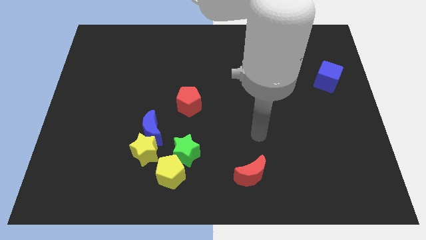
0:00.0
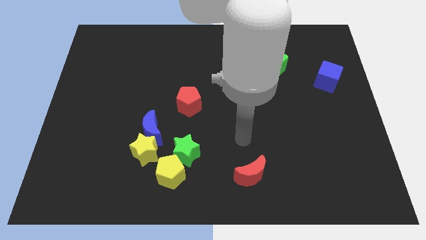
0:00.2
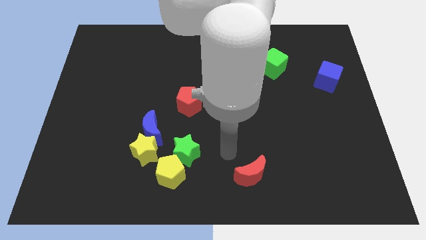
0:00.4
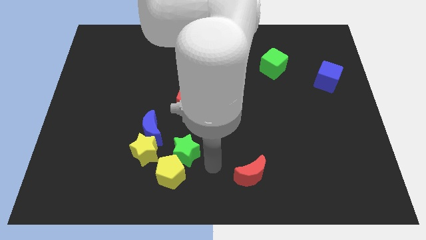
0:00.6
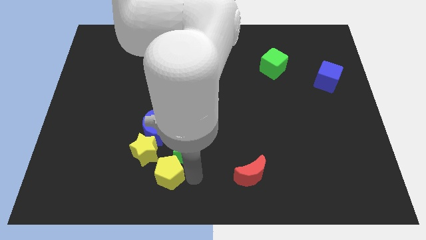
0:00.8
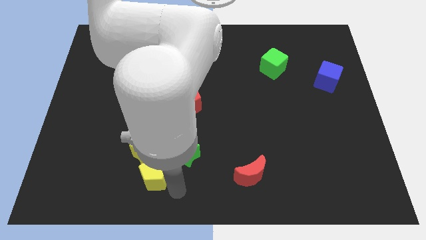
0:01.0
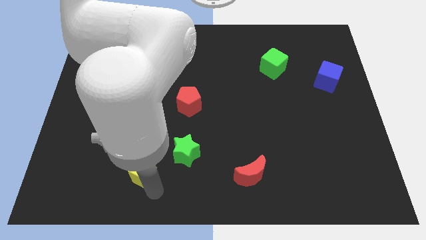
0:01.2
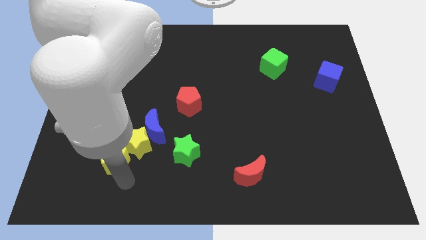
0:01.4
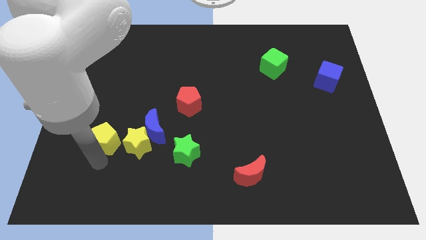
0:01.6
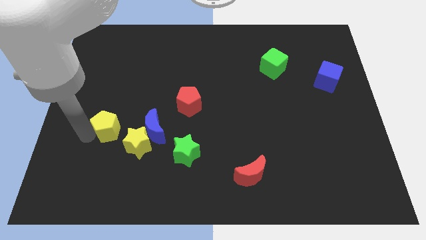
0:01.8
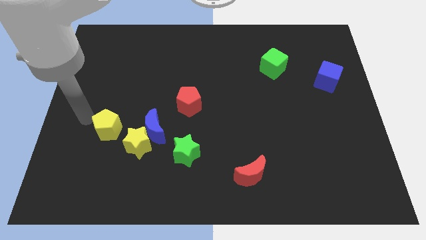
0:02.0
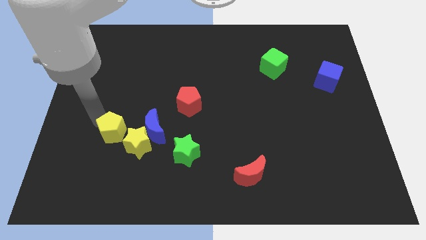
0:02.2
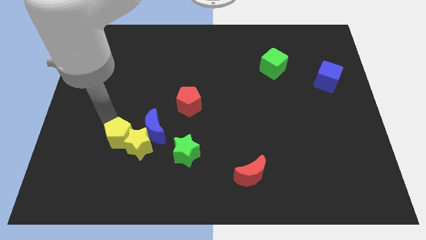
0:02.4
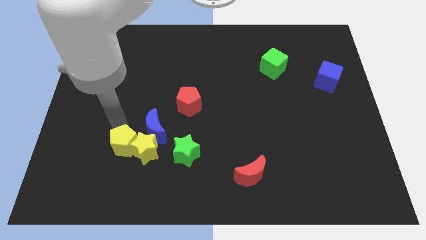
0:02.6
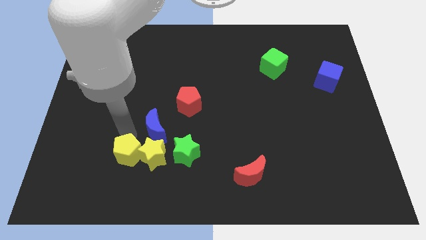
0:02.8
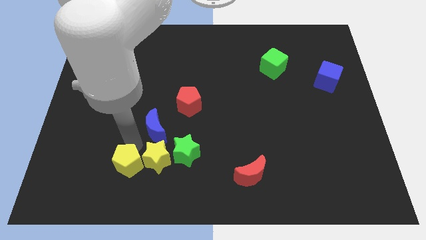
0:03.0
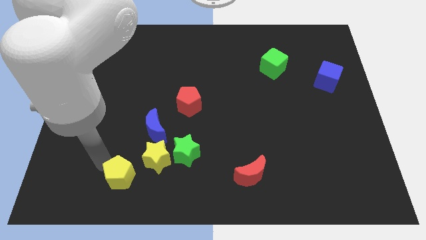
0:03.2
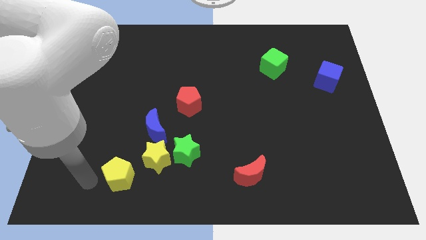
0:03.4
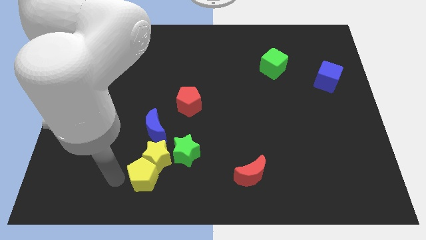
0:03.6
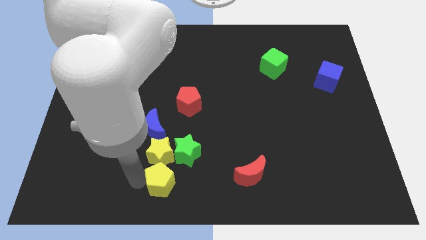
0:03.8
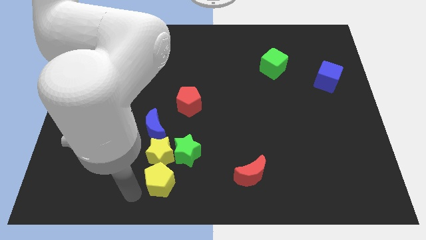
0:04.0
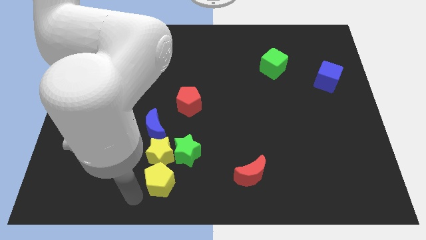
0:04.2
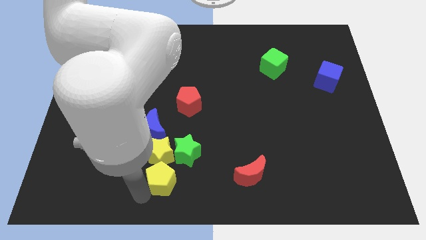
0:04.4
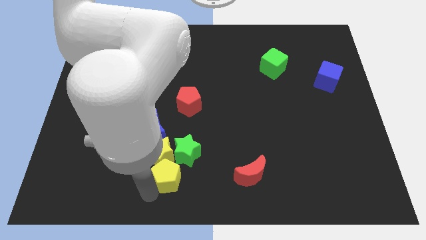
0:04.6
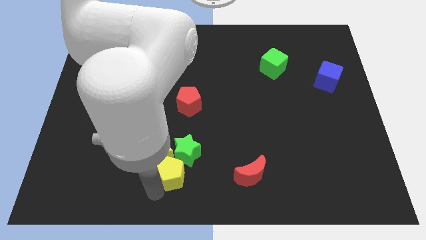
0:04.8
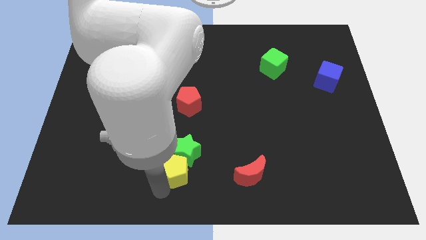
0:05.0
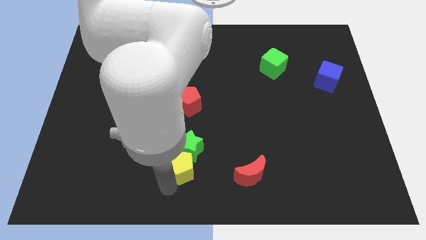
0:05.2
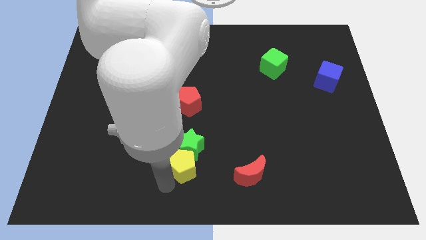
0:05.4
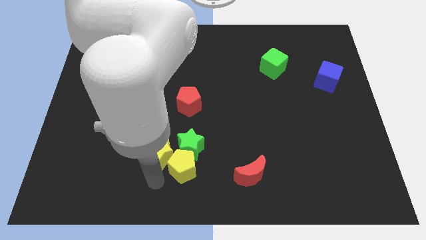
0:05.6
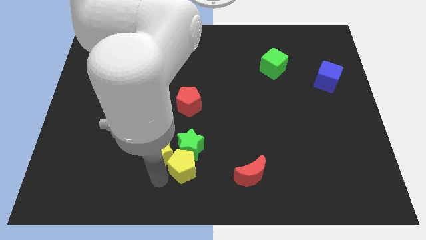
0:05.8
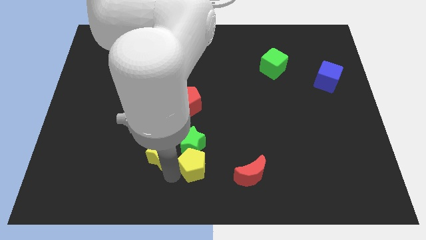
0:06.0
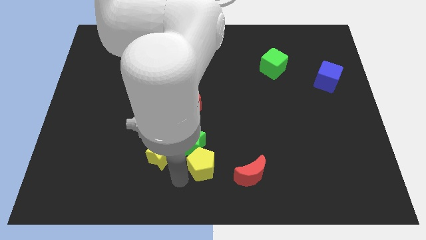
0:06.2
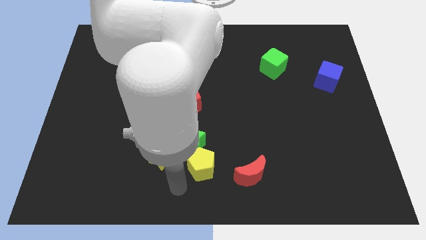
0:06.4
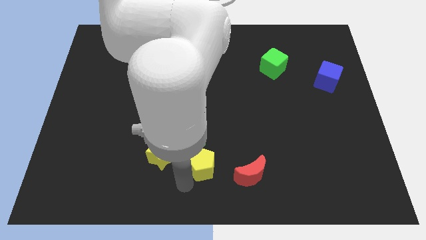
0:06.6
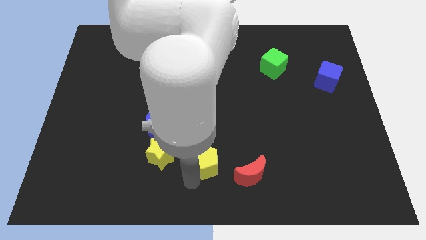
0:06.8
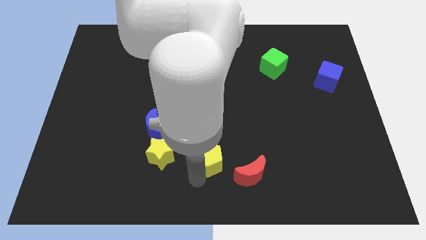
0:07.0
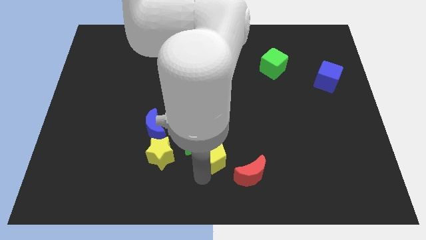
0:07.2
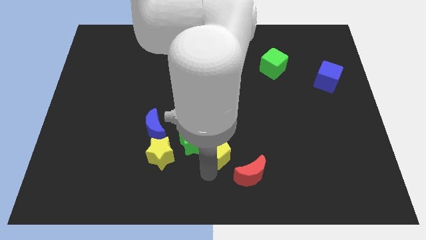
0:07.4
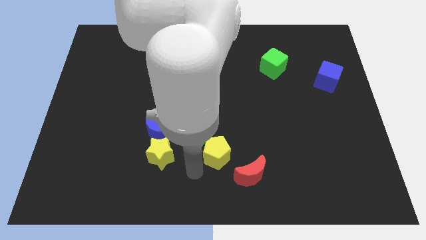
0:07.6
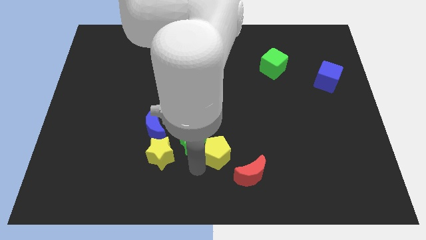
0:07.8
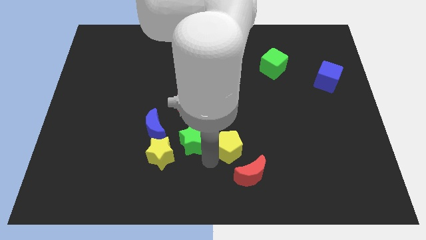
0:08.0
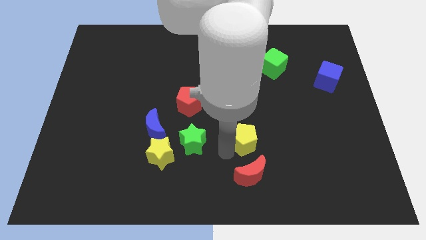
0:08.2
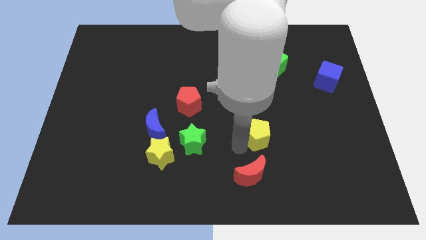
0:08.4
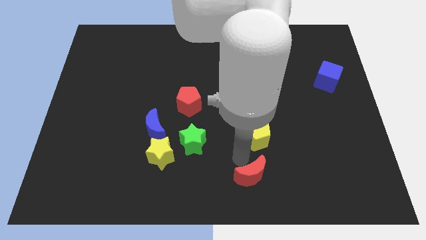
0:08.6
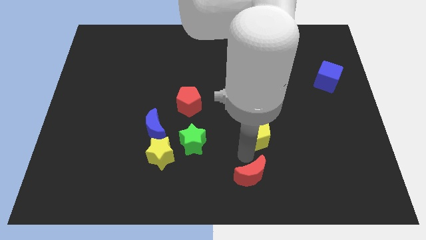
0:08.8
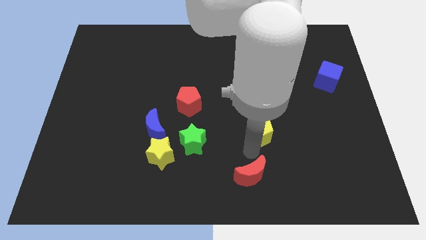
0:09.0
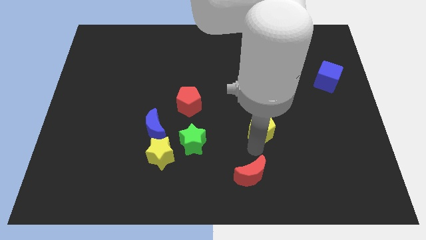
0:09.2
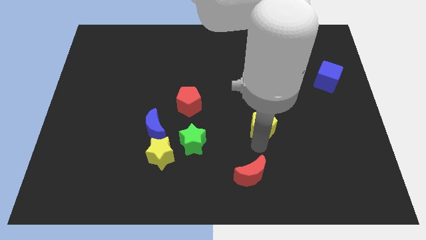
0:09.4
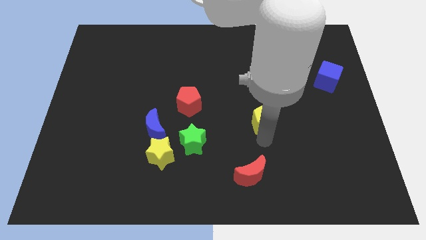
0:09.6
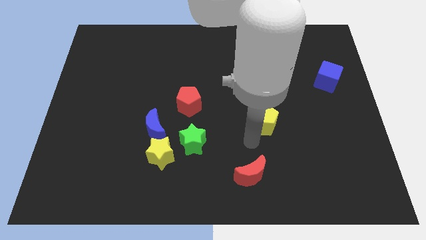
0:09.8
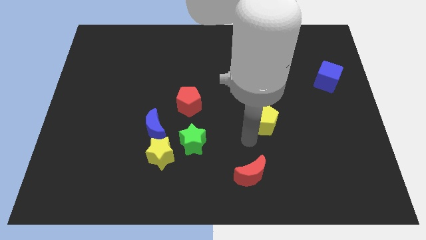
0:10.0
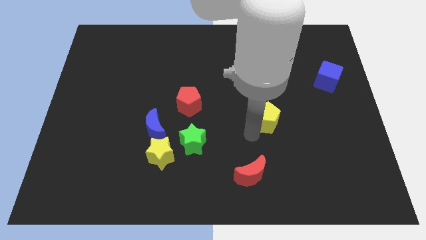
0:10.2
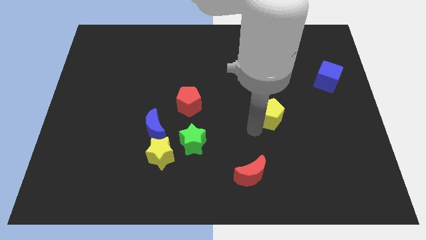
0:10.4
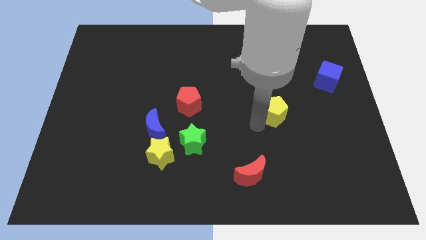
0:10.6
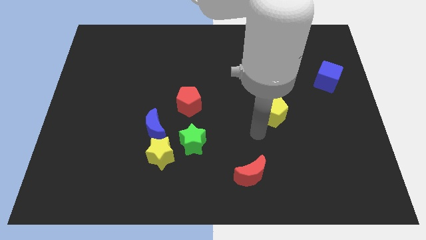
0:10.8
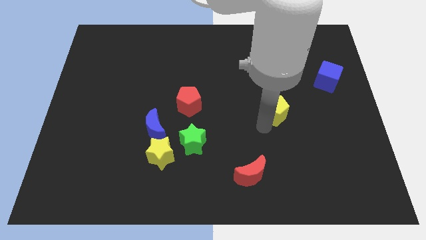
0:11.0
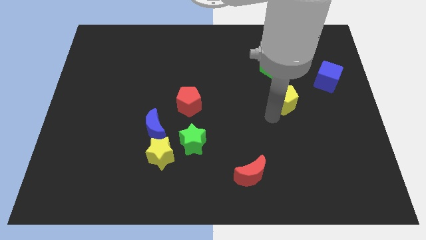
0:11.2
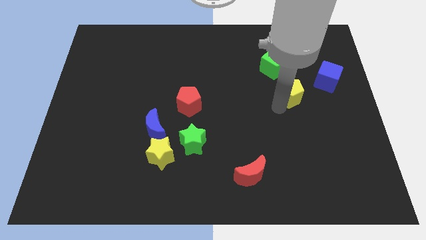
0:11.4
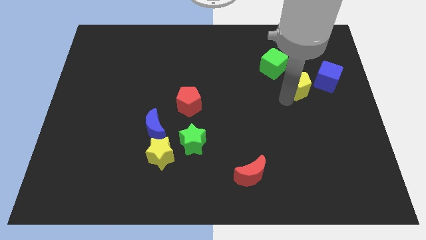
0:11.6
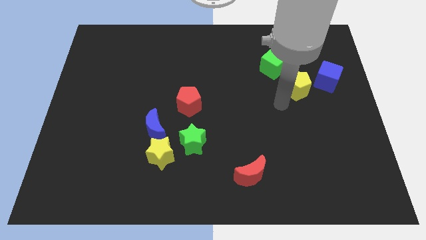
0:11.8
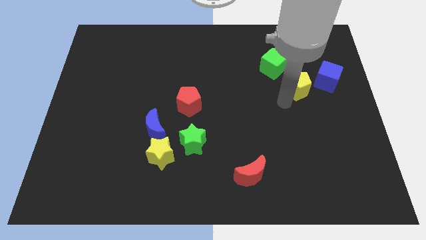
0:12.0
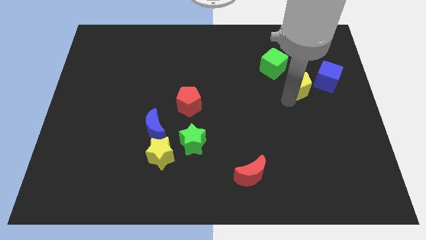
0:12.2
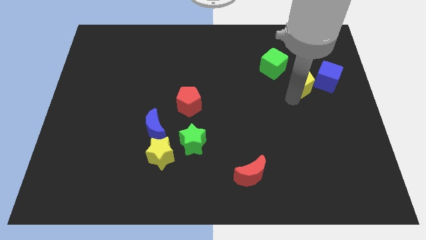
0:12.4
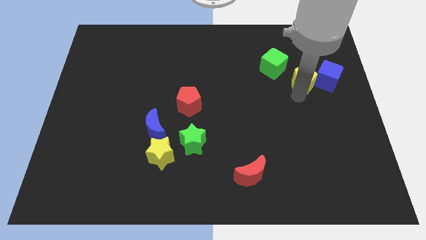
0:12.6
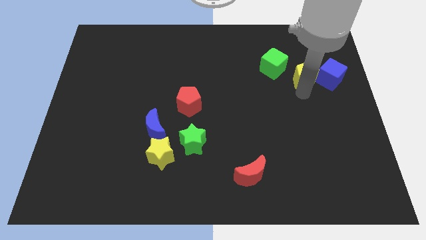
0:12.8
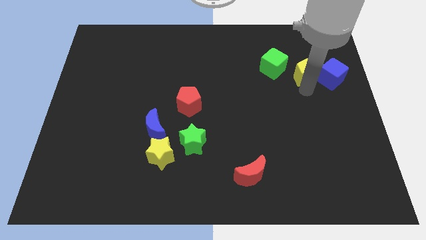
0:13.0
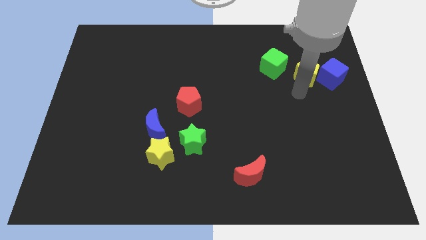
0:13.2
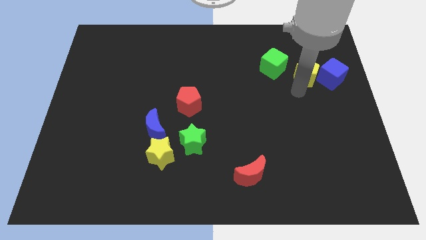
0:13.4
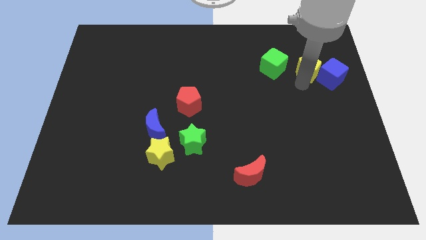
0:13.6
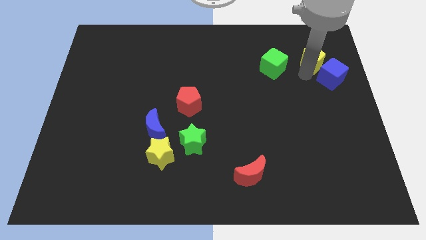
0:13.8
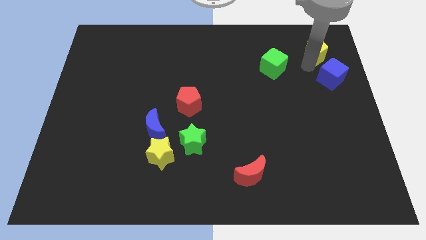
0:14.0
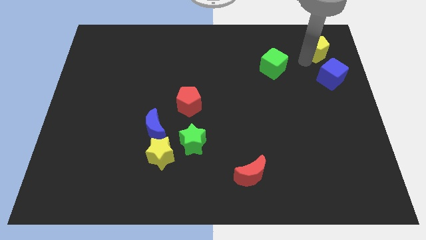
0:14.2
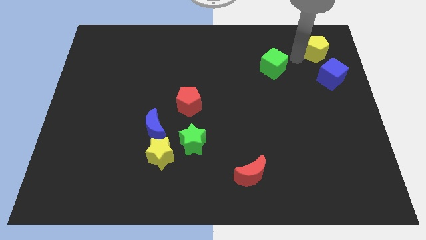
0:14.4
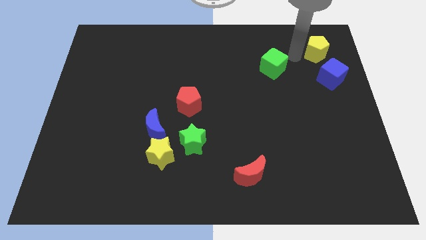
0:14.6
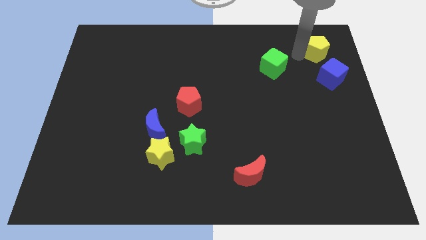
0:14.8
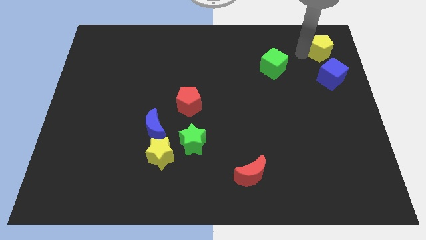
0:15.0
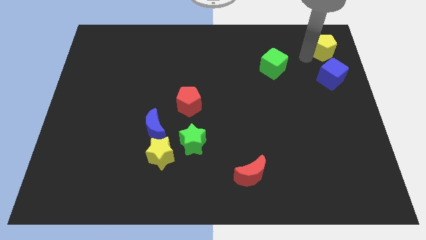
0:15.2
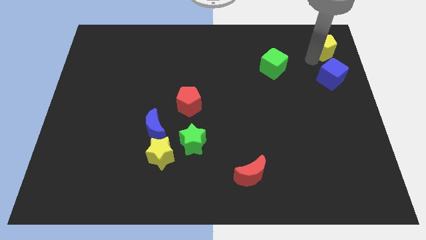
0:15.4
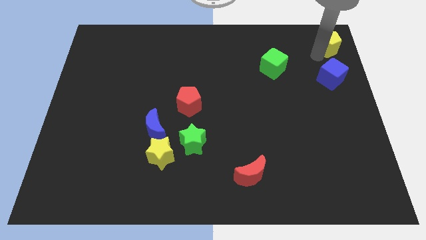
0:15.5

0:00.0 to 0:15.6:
push the yellow pentagon to the top right of the board
